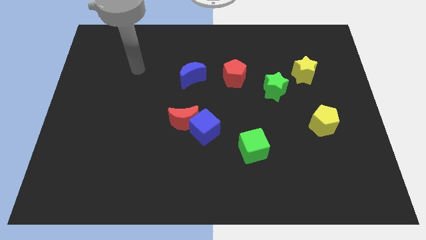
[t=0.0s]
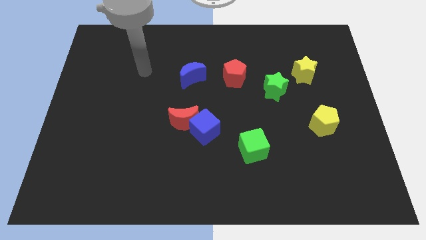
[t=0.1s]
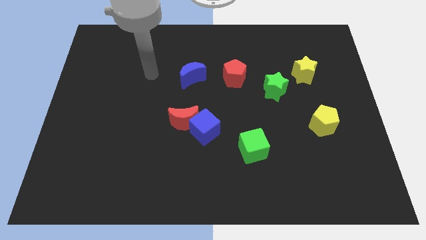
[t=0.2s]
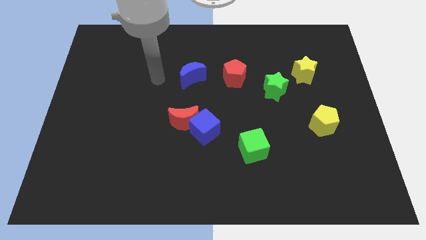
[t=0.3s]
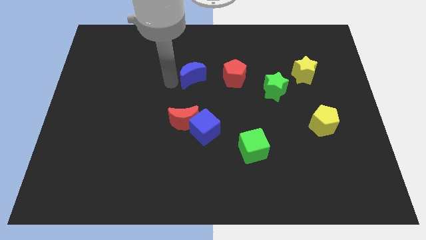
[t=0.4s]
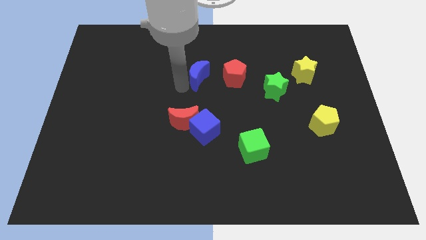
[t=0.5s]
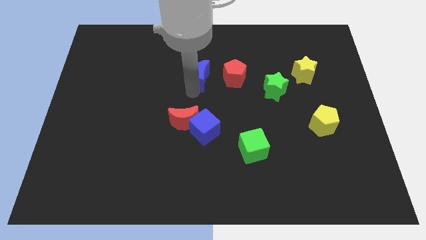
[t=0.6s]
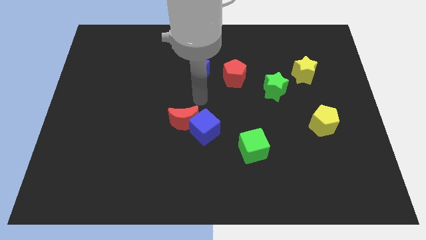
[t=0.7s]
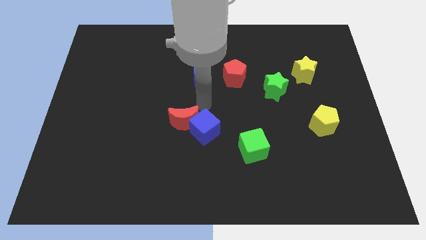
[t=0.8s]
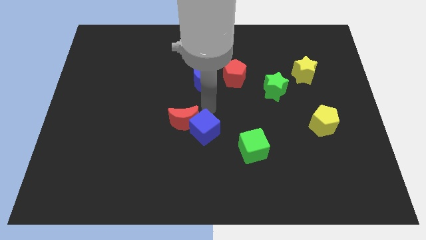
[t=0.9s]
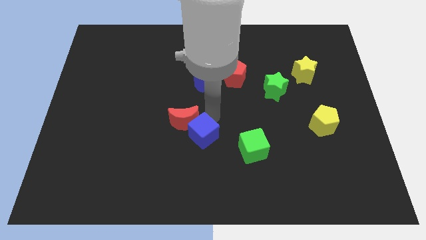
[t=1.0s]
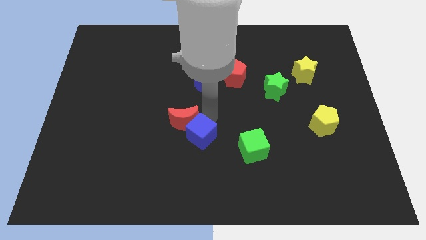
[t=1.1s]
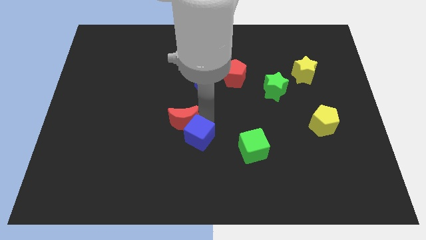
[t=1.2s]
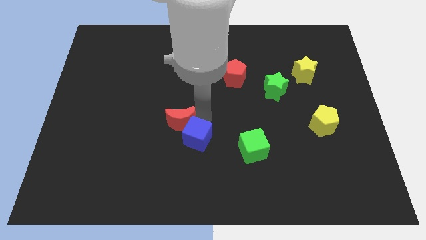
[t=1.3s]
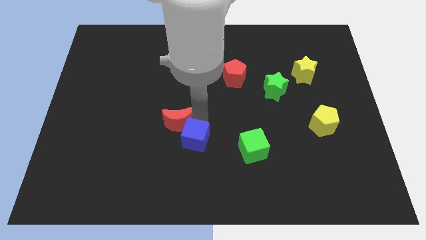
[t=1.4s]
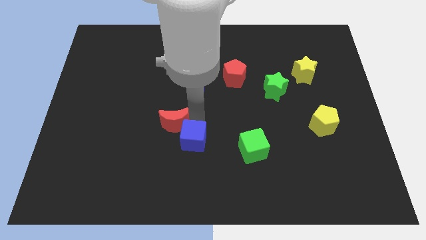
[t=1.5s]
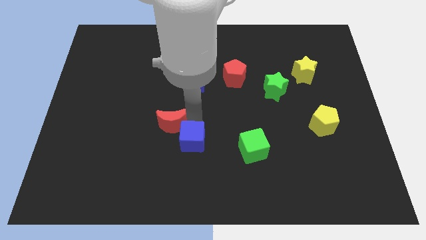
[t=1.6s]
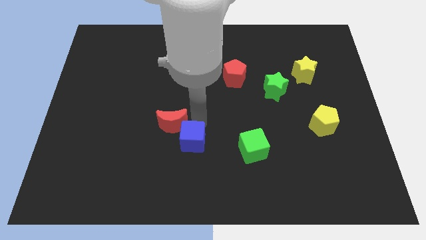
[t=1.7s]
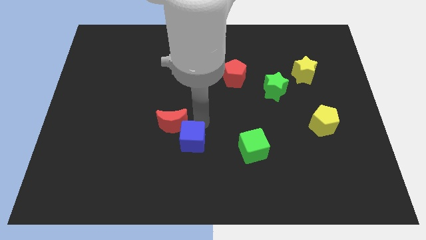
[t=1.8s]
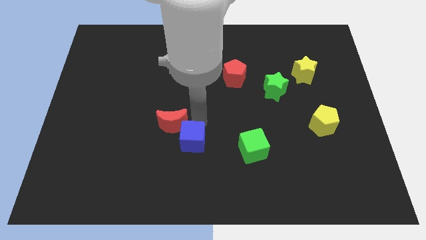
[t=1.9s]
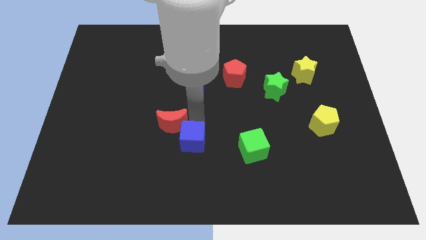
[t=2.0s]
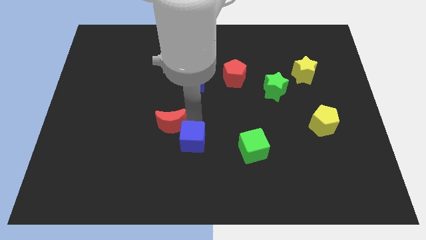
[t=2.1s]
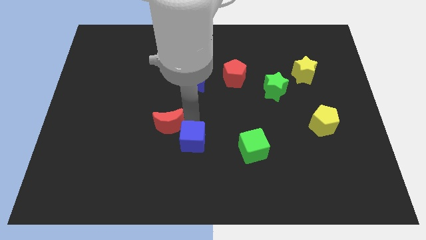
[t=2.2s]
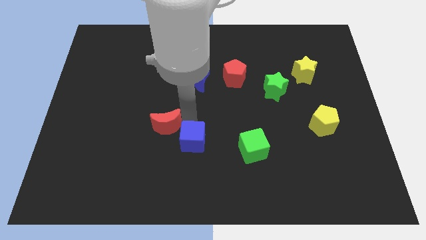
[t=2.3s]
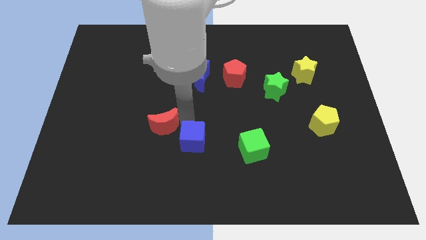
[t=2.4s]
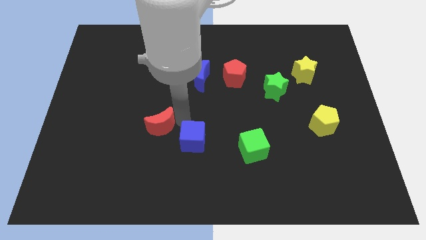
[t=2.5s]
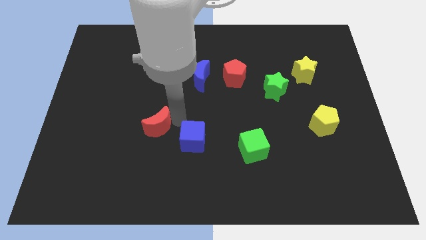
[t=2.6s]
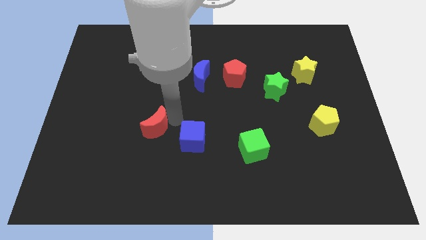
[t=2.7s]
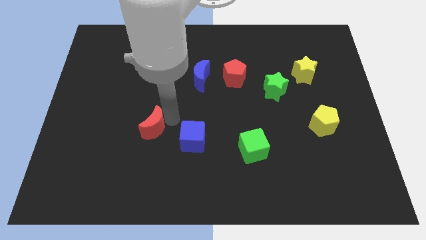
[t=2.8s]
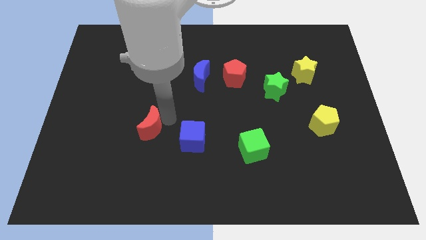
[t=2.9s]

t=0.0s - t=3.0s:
slightly slide the red moon to the left

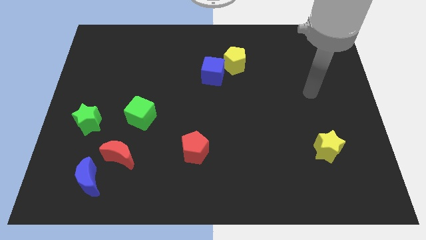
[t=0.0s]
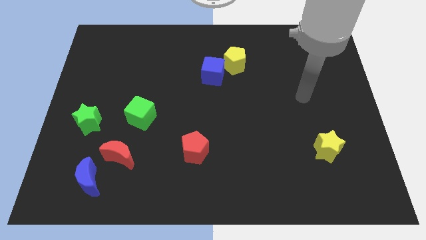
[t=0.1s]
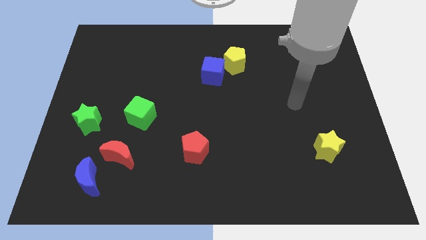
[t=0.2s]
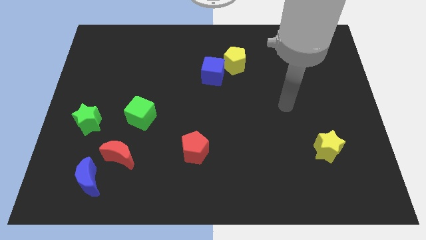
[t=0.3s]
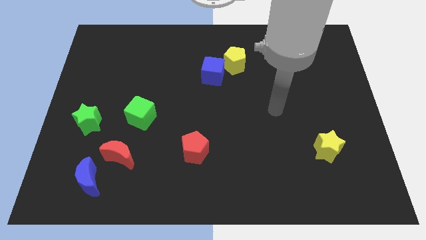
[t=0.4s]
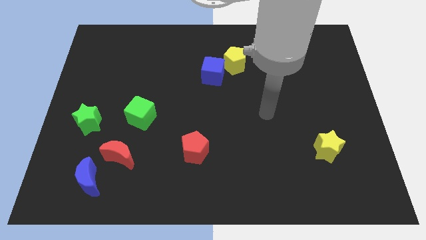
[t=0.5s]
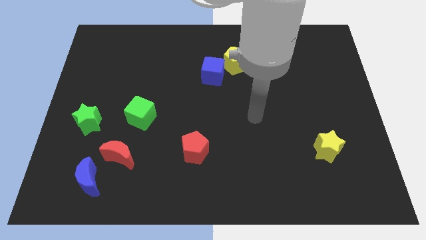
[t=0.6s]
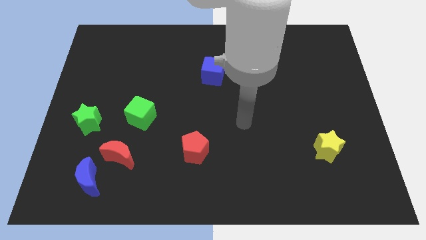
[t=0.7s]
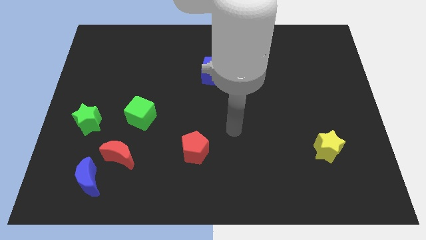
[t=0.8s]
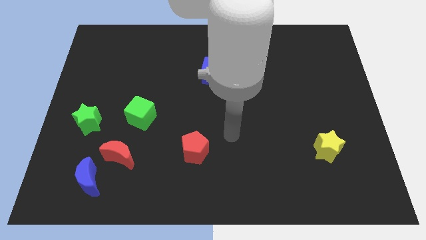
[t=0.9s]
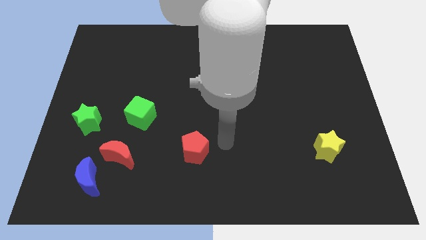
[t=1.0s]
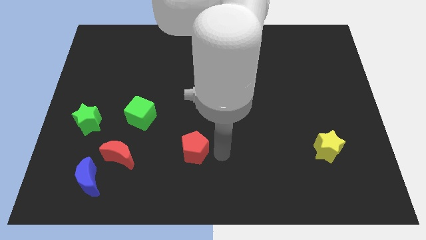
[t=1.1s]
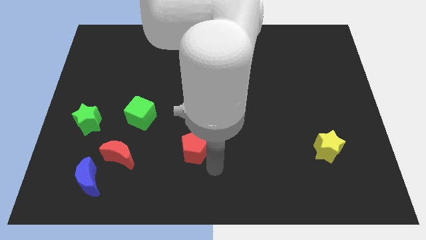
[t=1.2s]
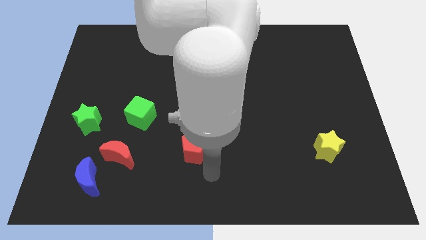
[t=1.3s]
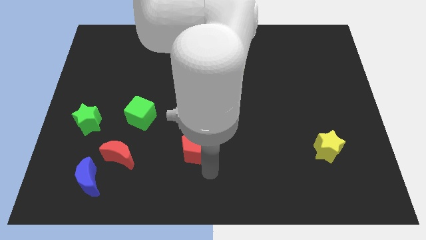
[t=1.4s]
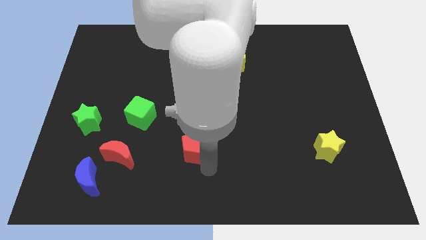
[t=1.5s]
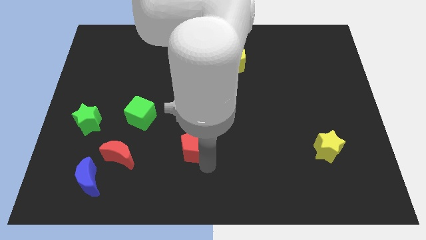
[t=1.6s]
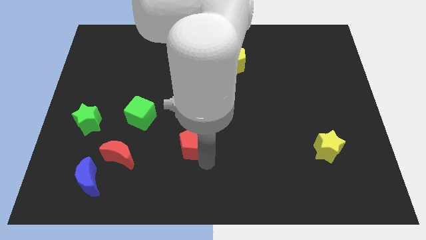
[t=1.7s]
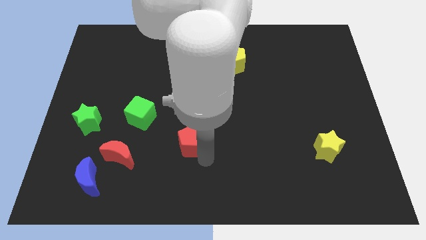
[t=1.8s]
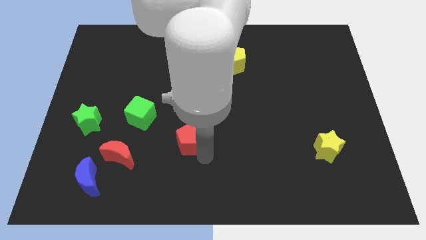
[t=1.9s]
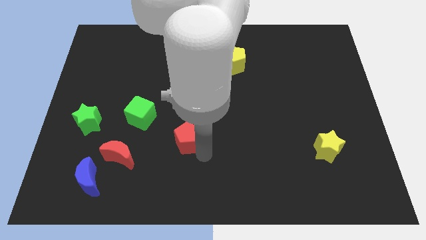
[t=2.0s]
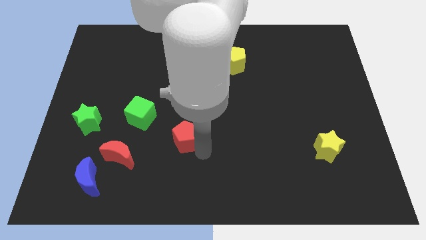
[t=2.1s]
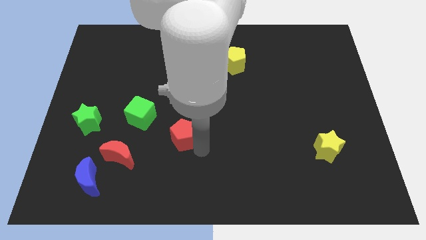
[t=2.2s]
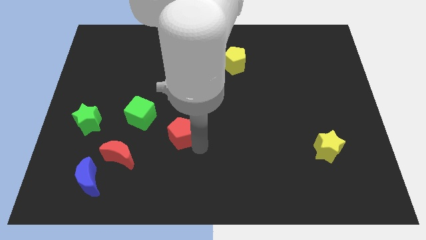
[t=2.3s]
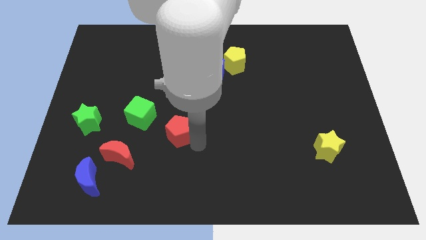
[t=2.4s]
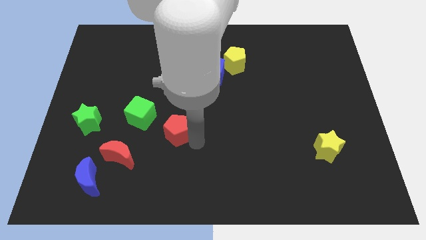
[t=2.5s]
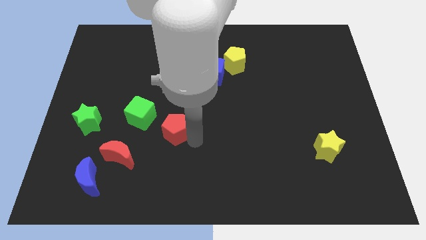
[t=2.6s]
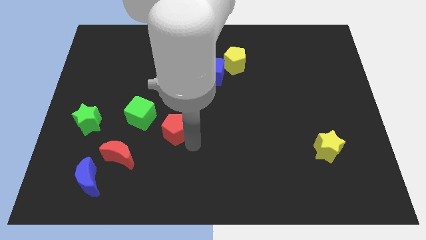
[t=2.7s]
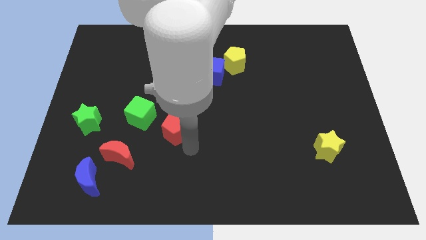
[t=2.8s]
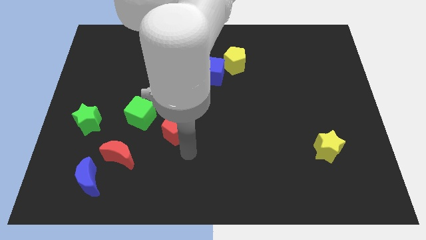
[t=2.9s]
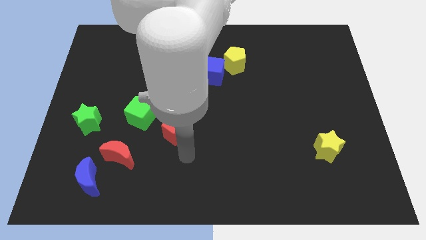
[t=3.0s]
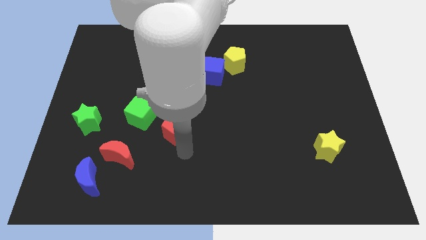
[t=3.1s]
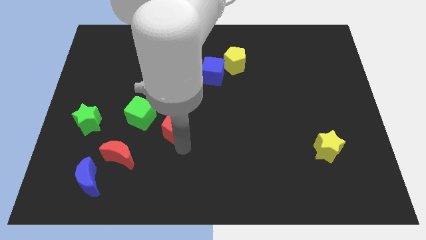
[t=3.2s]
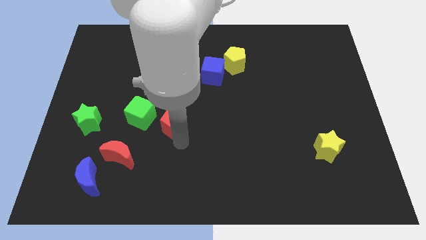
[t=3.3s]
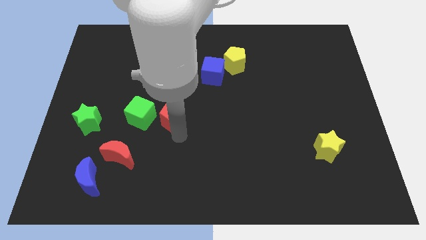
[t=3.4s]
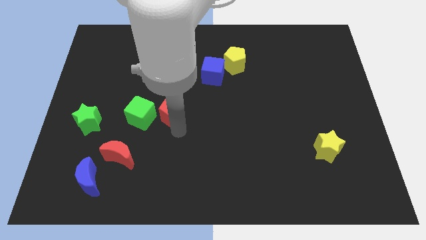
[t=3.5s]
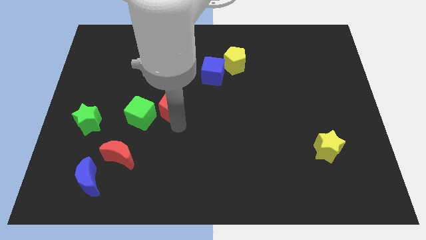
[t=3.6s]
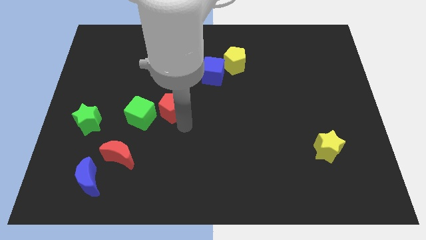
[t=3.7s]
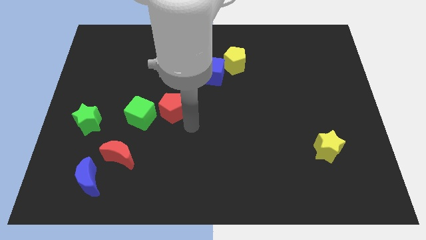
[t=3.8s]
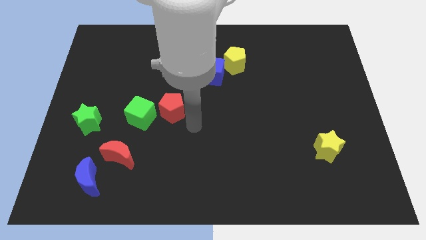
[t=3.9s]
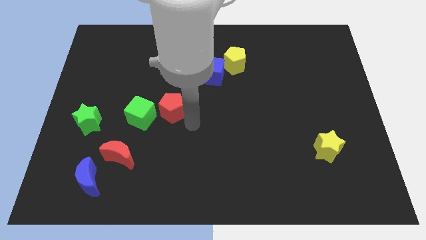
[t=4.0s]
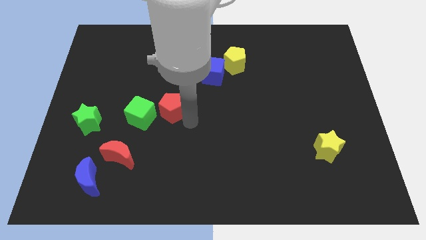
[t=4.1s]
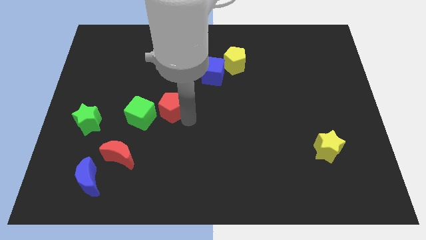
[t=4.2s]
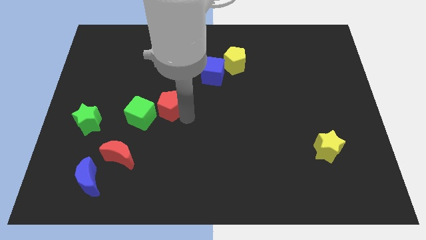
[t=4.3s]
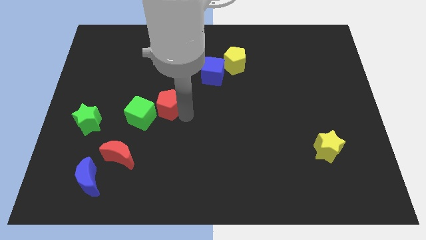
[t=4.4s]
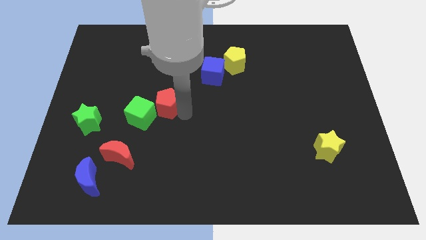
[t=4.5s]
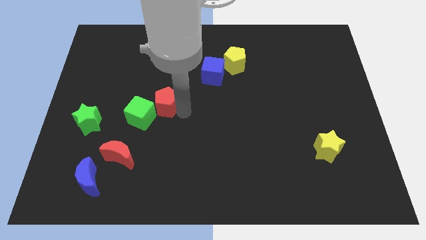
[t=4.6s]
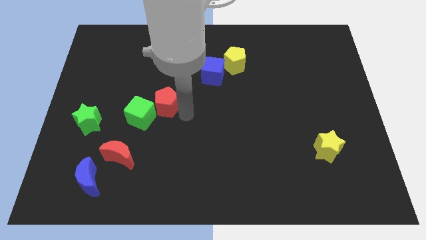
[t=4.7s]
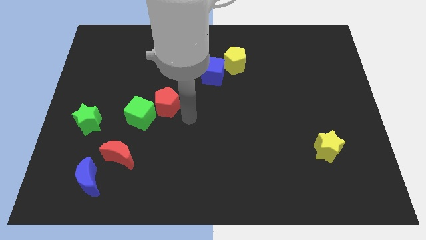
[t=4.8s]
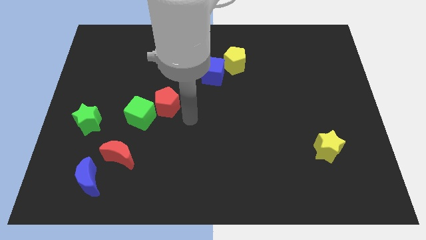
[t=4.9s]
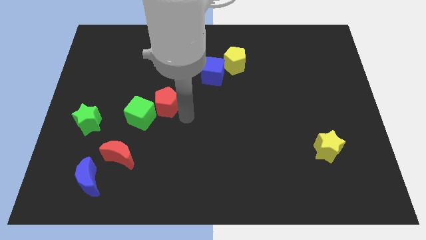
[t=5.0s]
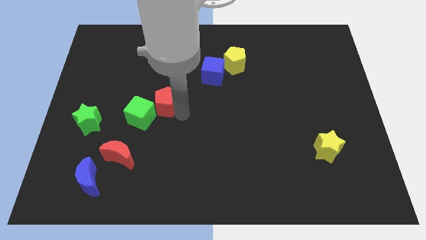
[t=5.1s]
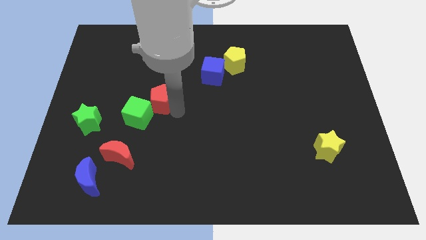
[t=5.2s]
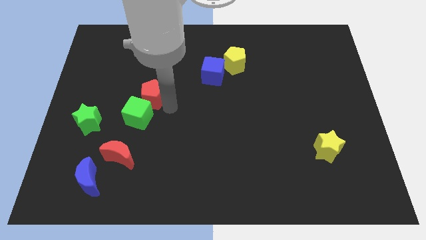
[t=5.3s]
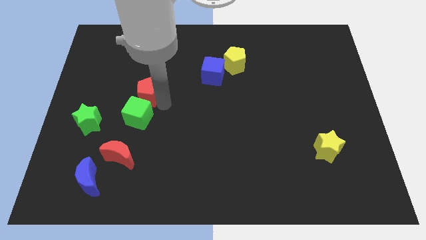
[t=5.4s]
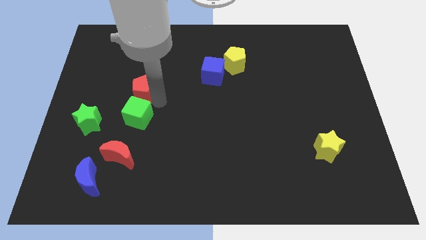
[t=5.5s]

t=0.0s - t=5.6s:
move the red pentagon up and to the left
